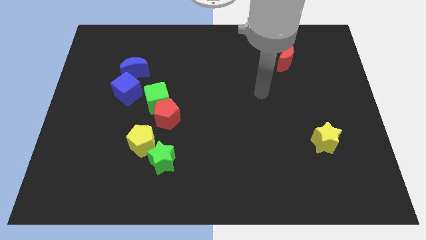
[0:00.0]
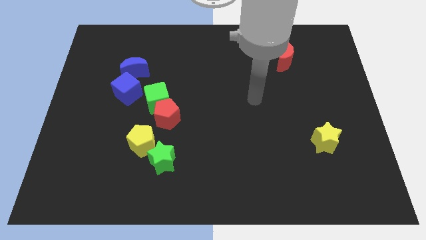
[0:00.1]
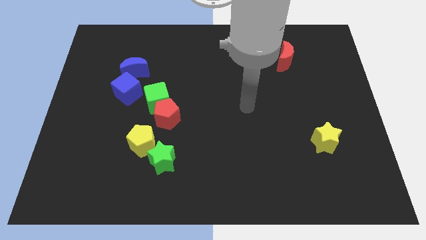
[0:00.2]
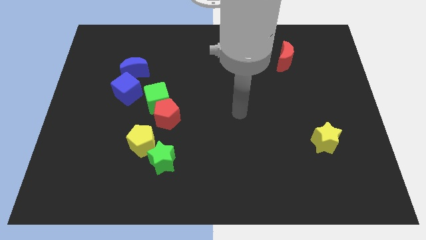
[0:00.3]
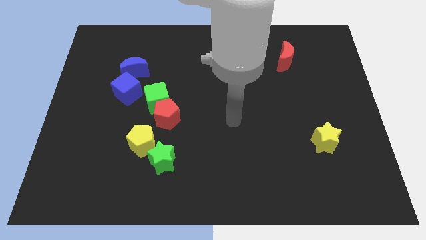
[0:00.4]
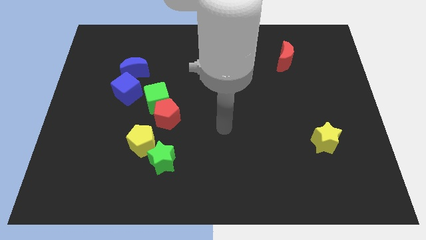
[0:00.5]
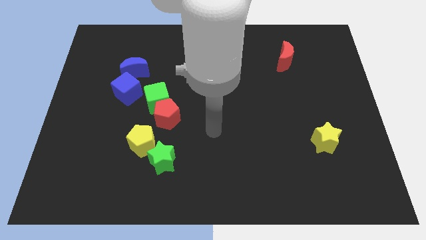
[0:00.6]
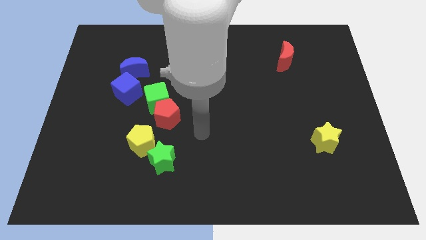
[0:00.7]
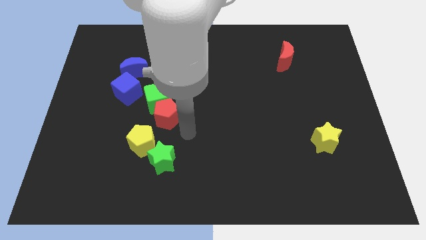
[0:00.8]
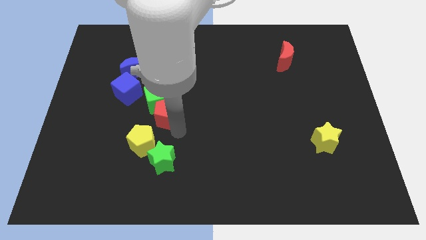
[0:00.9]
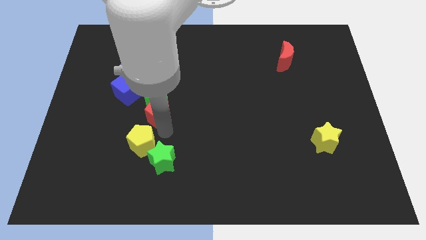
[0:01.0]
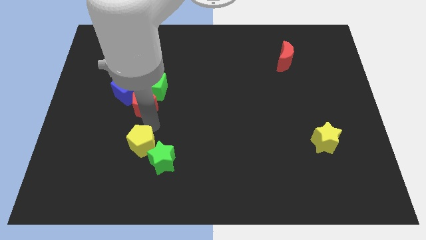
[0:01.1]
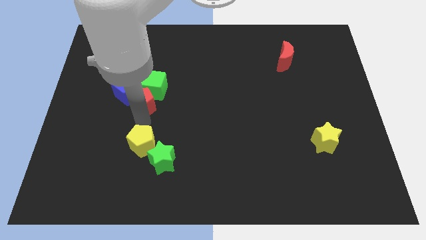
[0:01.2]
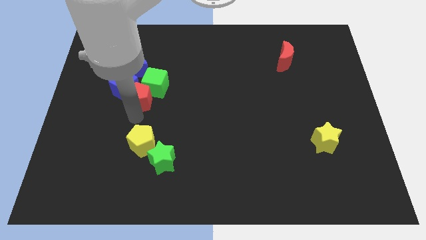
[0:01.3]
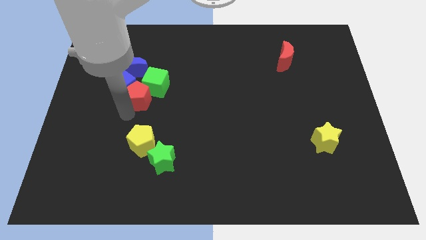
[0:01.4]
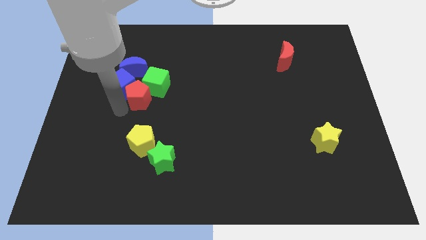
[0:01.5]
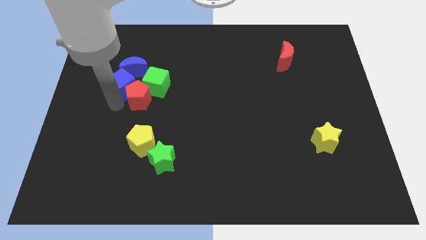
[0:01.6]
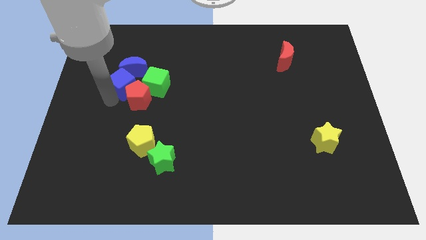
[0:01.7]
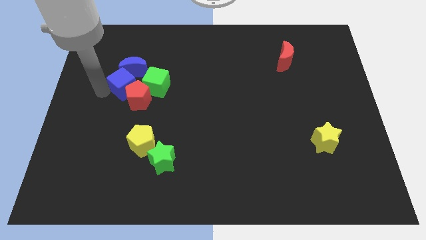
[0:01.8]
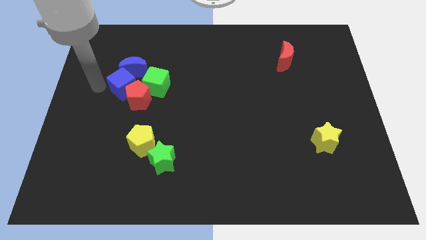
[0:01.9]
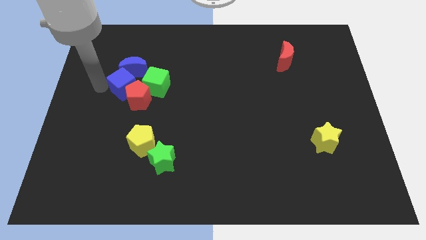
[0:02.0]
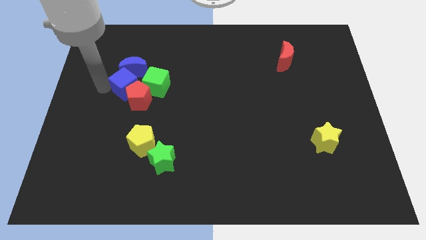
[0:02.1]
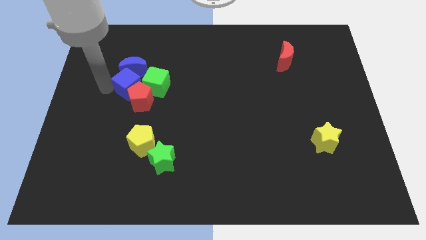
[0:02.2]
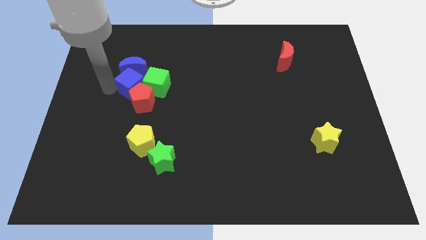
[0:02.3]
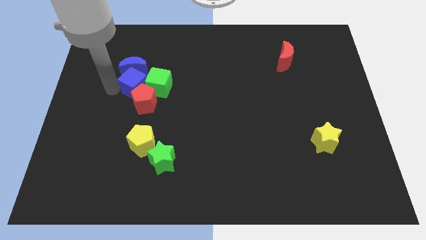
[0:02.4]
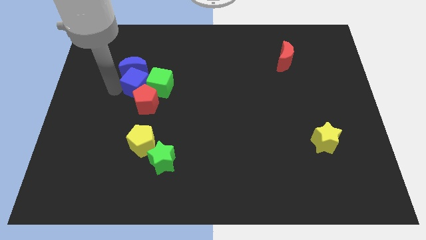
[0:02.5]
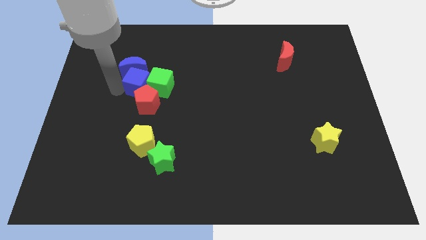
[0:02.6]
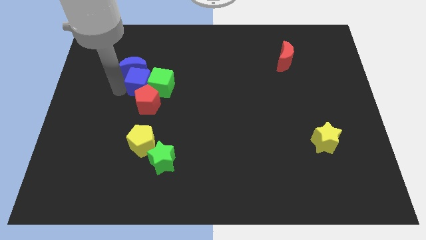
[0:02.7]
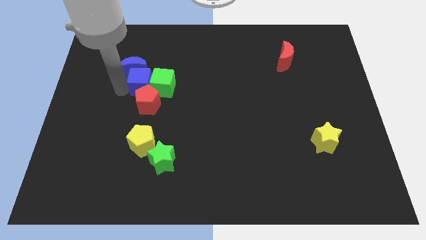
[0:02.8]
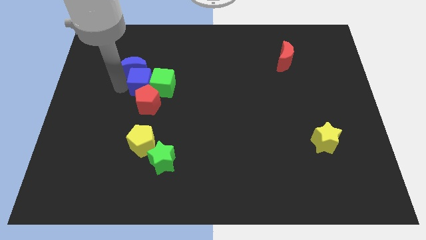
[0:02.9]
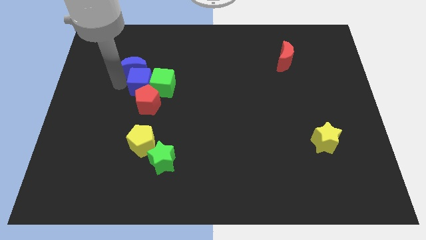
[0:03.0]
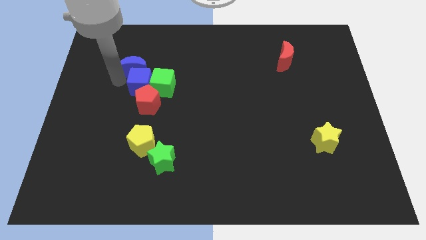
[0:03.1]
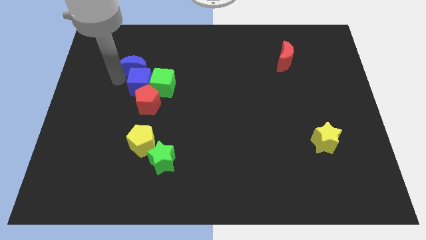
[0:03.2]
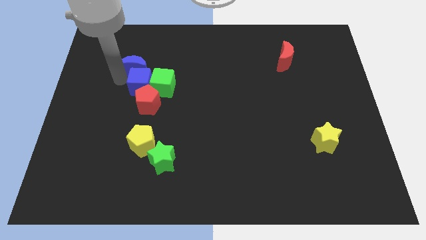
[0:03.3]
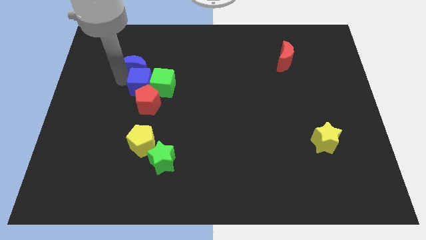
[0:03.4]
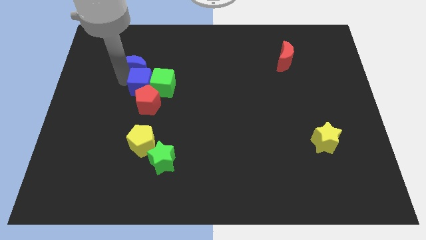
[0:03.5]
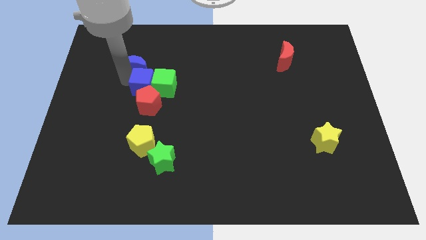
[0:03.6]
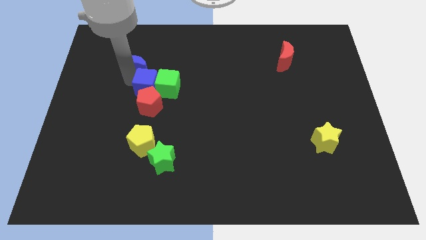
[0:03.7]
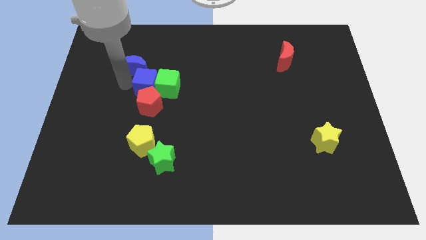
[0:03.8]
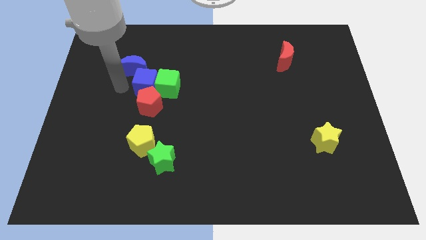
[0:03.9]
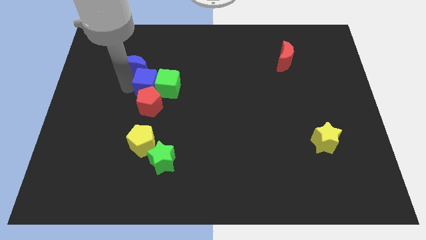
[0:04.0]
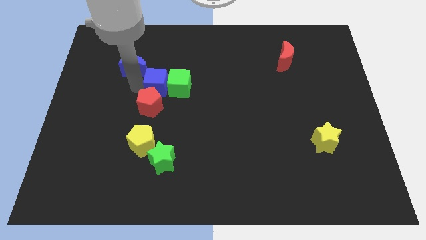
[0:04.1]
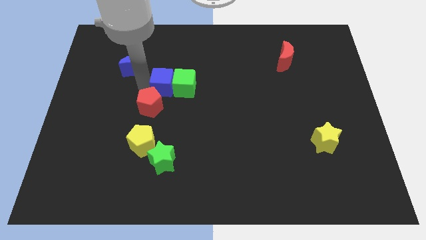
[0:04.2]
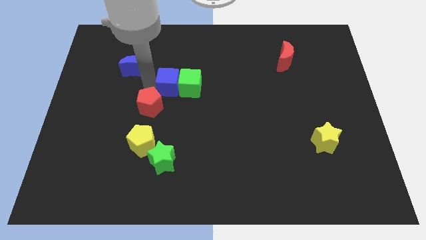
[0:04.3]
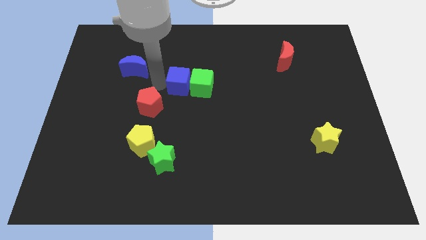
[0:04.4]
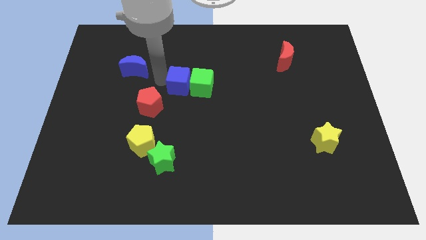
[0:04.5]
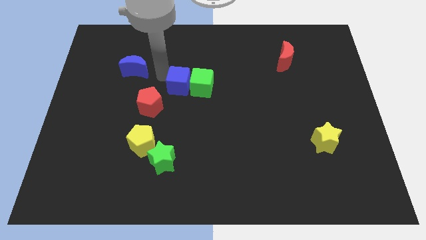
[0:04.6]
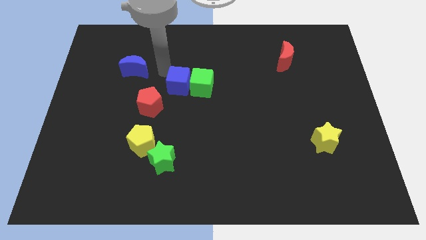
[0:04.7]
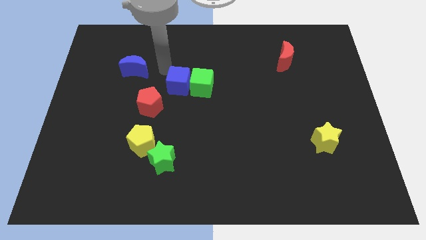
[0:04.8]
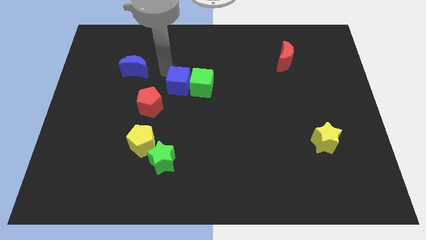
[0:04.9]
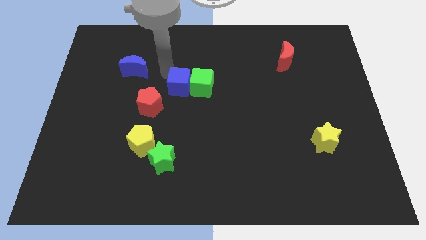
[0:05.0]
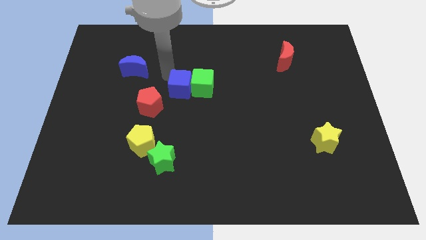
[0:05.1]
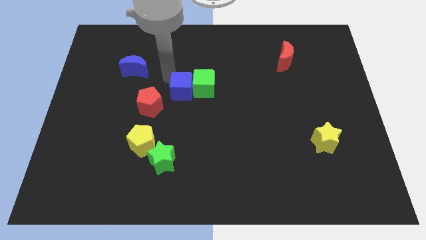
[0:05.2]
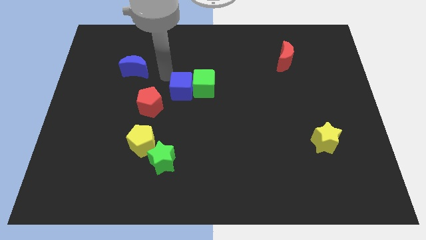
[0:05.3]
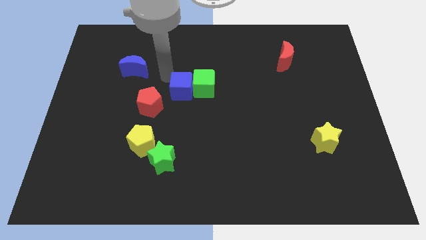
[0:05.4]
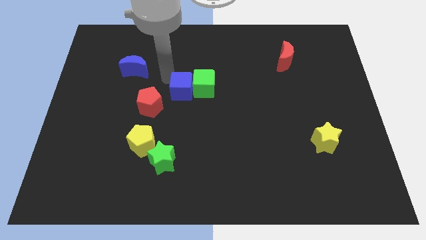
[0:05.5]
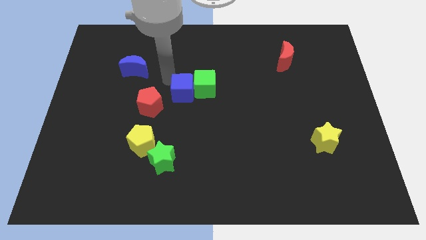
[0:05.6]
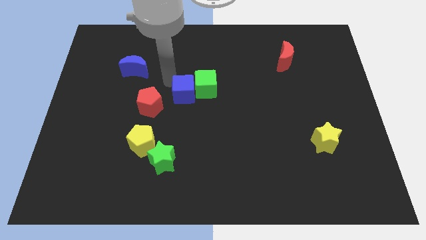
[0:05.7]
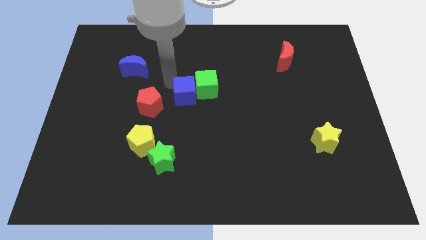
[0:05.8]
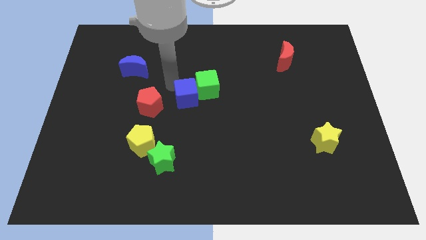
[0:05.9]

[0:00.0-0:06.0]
push the blue cube a little bit diagonally down and right

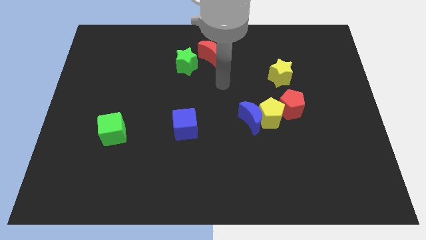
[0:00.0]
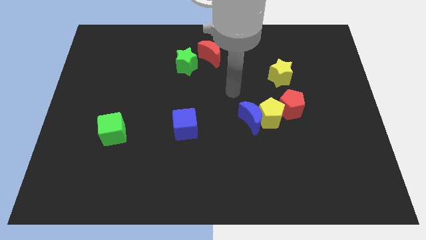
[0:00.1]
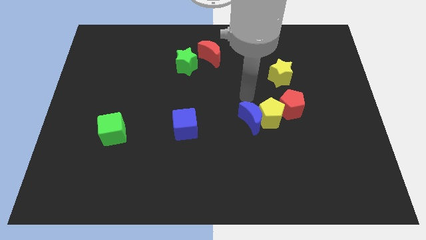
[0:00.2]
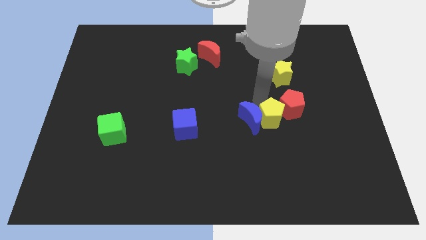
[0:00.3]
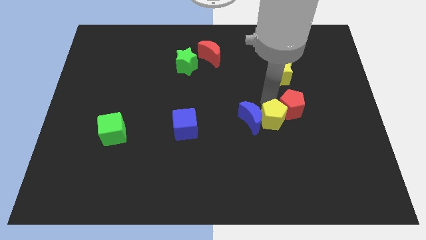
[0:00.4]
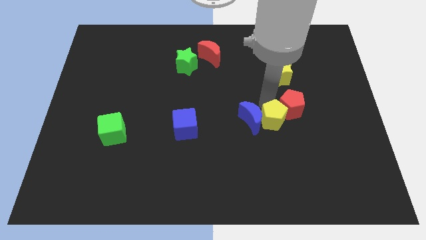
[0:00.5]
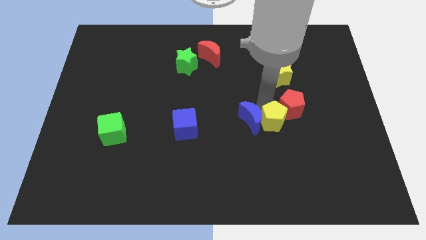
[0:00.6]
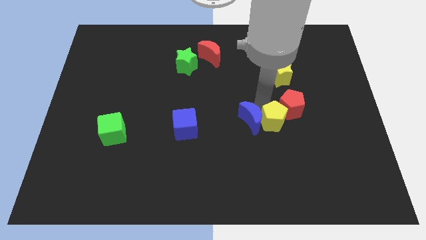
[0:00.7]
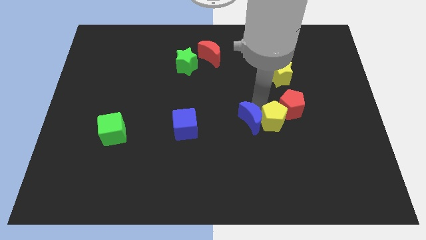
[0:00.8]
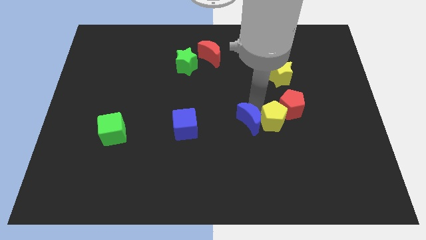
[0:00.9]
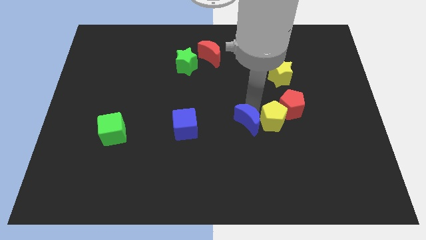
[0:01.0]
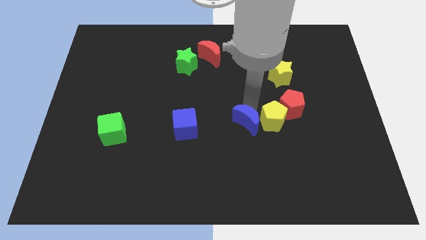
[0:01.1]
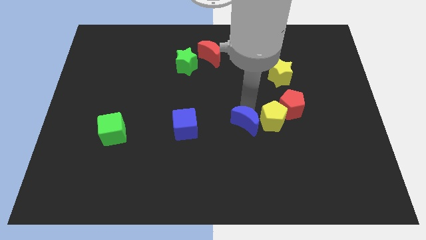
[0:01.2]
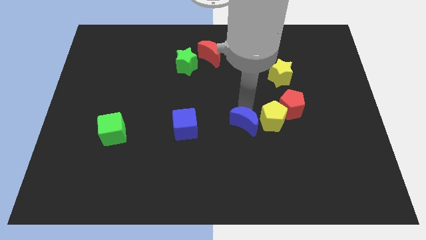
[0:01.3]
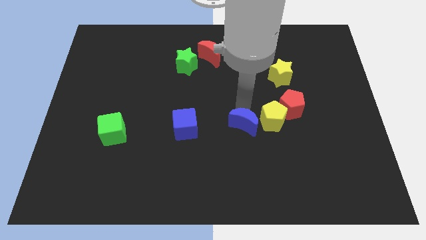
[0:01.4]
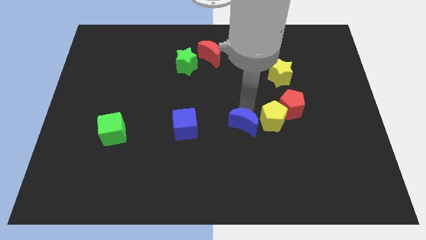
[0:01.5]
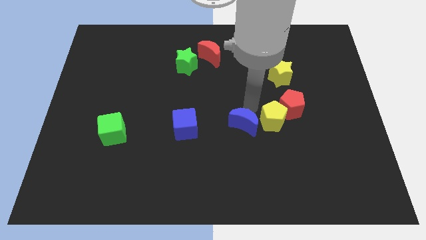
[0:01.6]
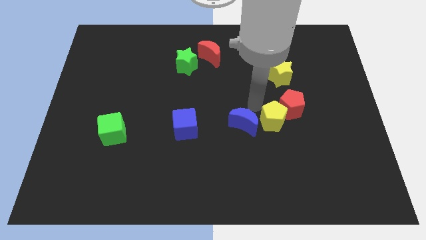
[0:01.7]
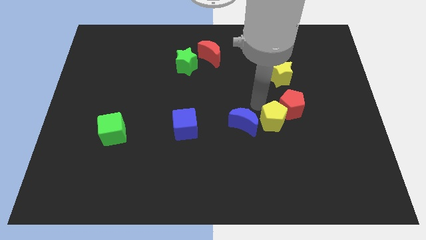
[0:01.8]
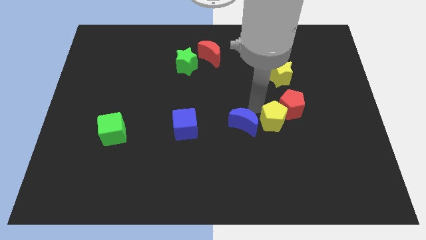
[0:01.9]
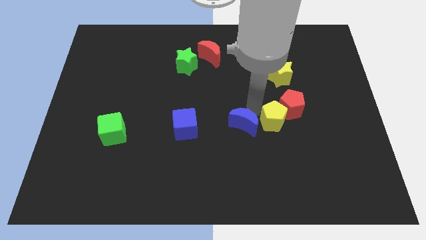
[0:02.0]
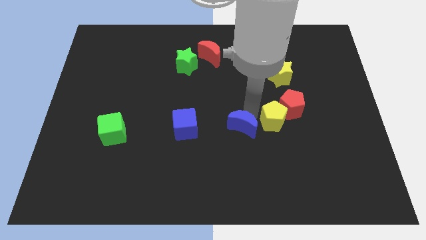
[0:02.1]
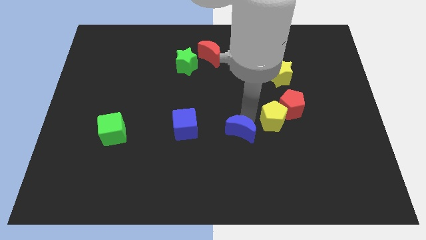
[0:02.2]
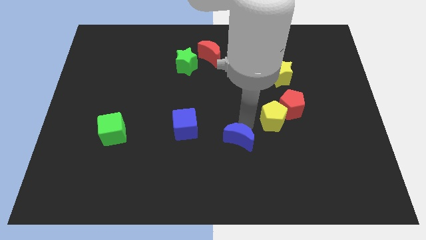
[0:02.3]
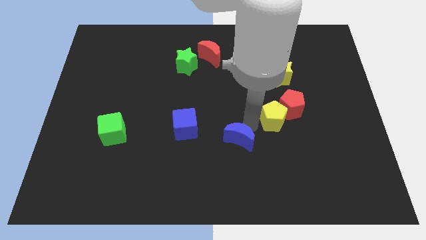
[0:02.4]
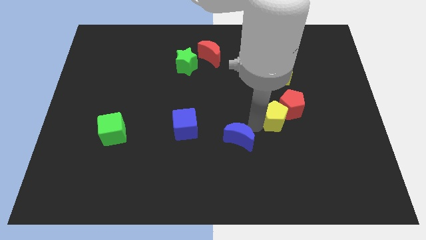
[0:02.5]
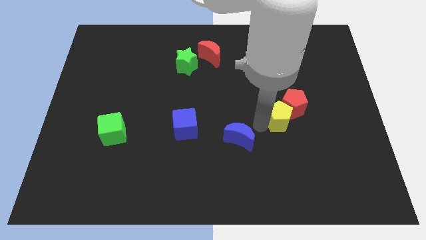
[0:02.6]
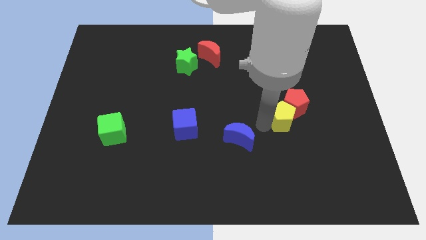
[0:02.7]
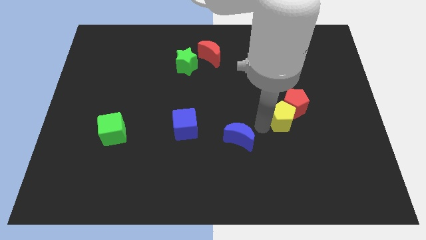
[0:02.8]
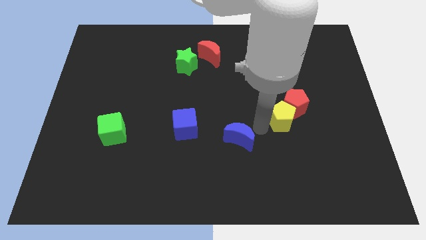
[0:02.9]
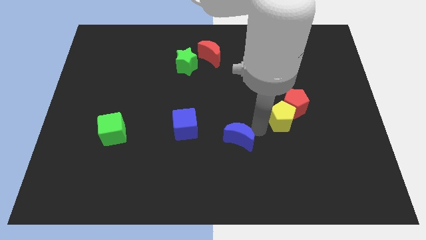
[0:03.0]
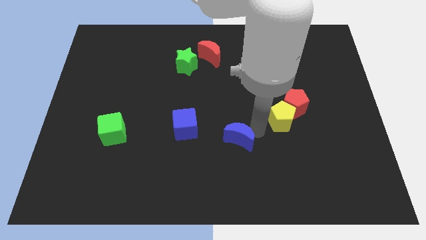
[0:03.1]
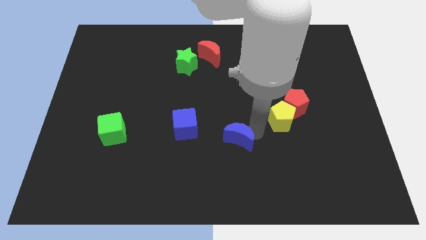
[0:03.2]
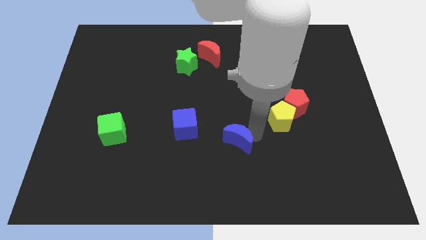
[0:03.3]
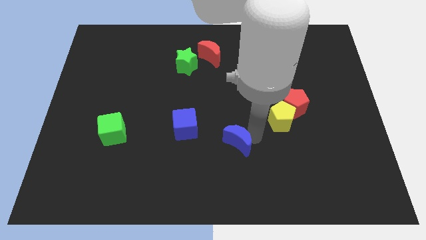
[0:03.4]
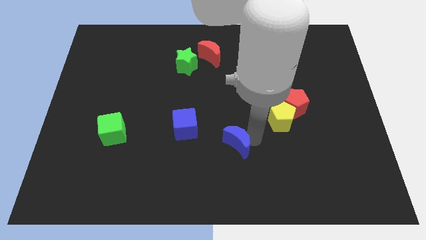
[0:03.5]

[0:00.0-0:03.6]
slightly move the blue moon down and to the left
